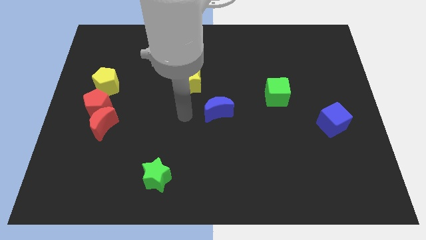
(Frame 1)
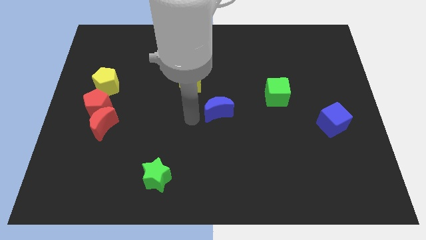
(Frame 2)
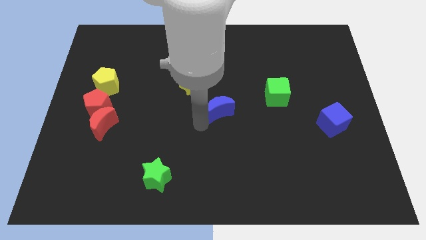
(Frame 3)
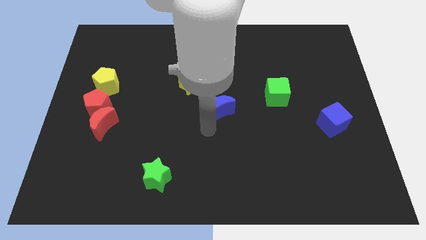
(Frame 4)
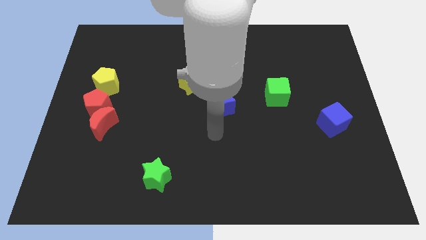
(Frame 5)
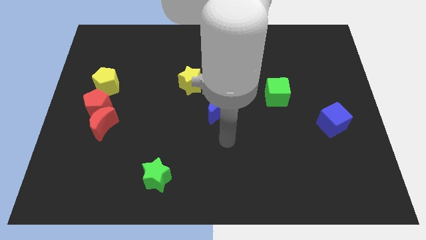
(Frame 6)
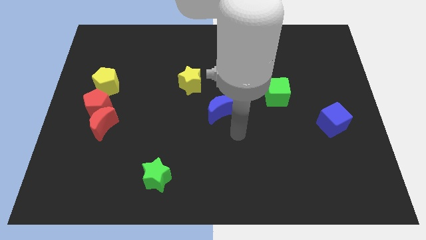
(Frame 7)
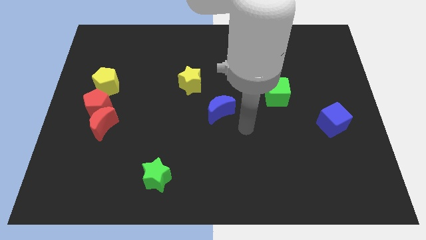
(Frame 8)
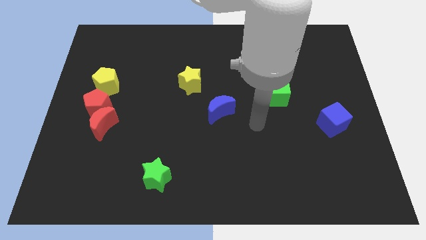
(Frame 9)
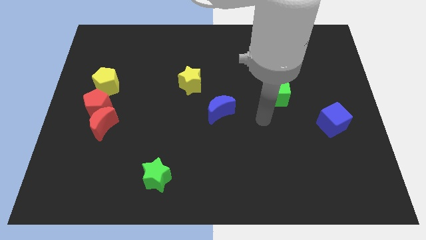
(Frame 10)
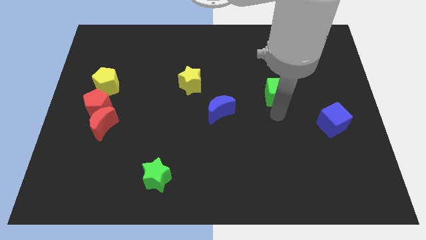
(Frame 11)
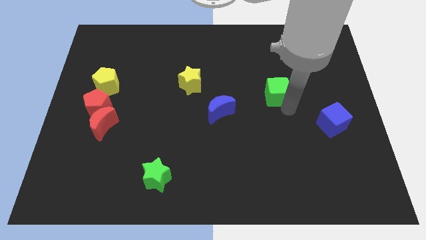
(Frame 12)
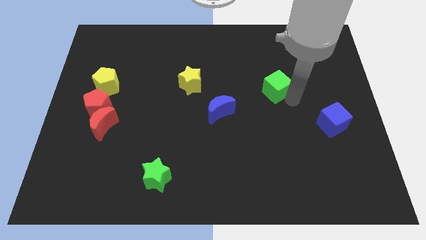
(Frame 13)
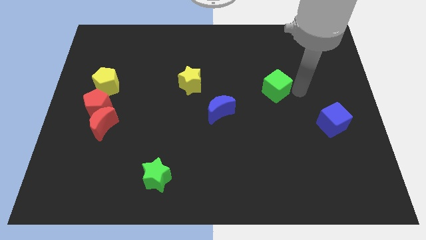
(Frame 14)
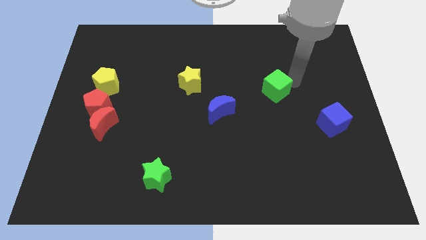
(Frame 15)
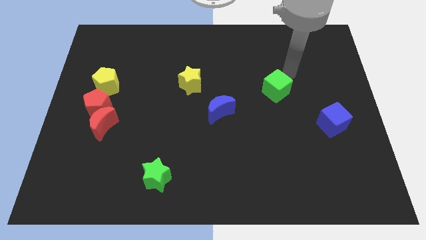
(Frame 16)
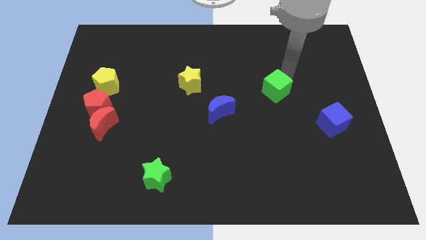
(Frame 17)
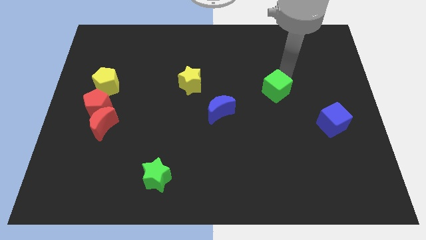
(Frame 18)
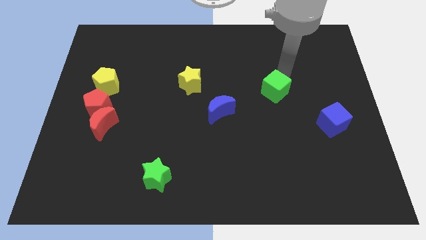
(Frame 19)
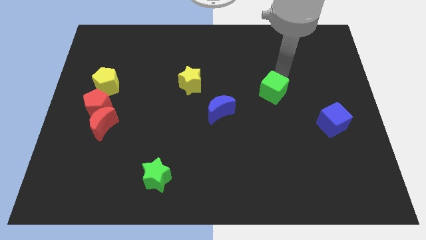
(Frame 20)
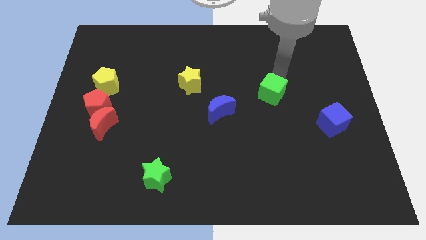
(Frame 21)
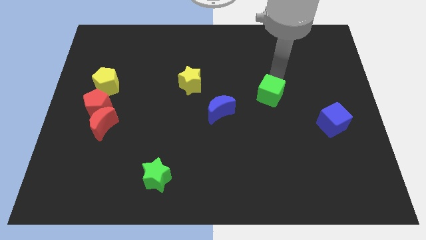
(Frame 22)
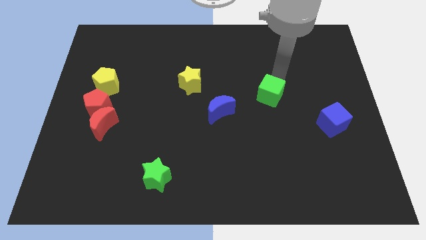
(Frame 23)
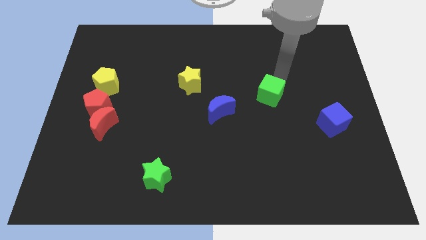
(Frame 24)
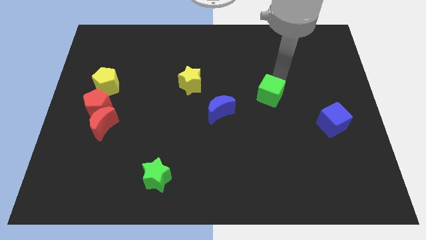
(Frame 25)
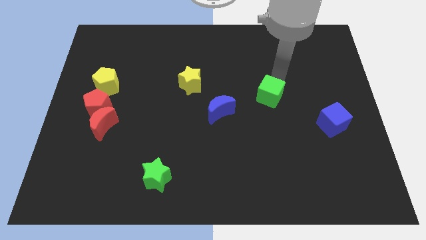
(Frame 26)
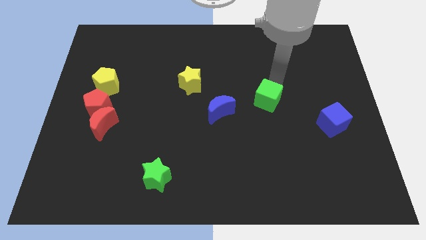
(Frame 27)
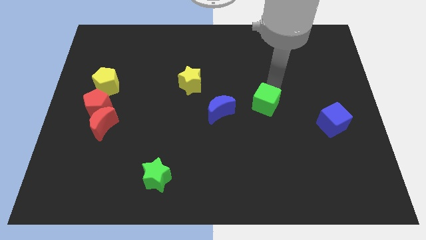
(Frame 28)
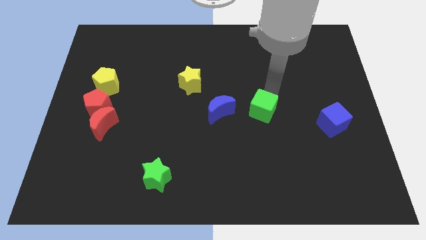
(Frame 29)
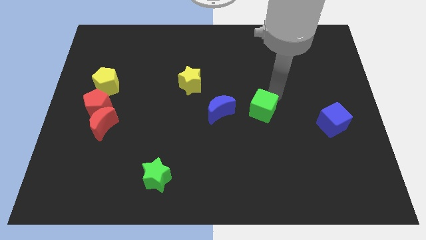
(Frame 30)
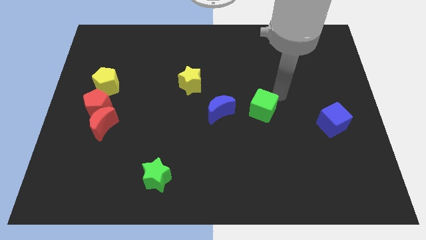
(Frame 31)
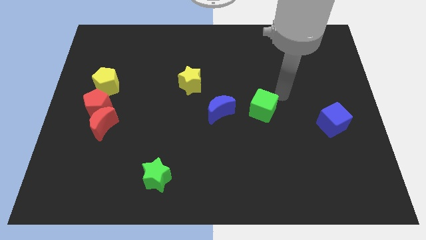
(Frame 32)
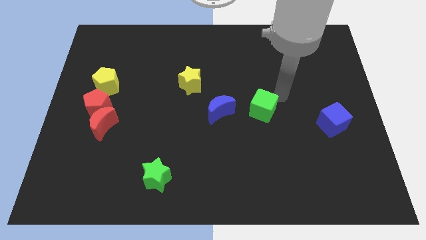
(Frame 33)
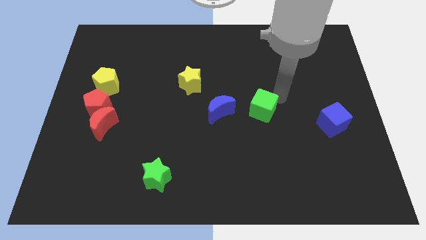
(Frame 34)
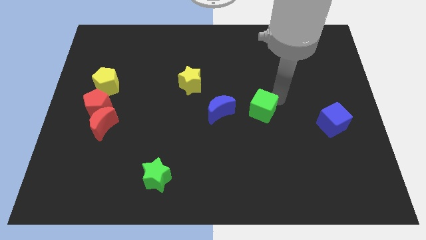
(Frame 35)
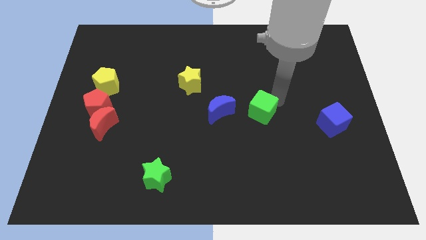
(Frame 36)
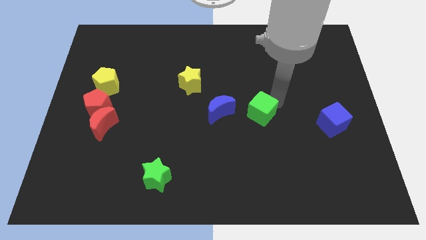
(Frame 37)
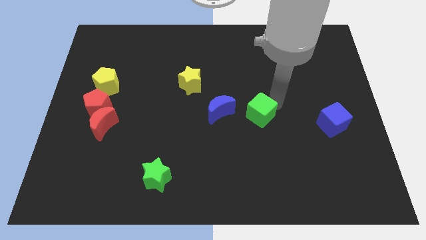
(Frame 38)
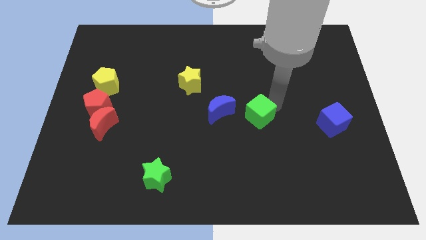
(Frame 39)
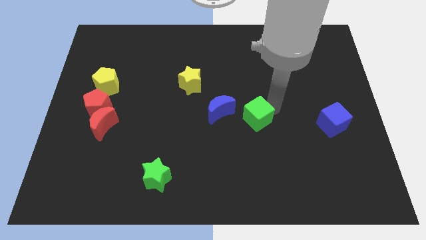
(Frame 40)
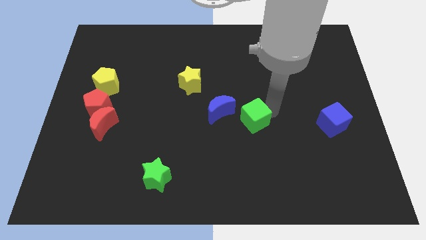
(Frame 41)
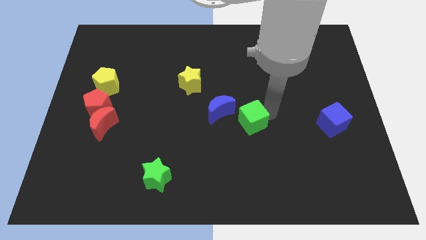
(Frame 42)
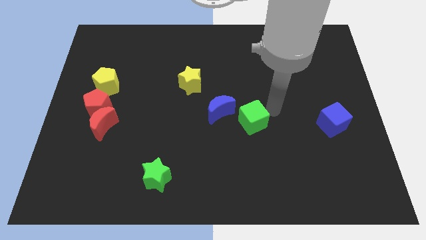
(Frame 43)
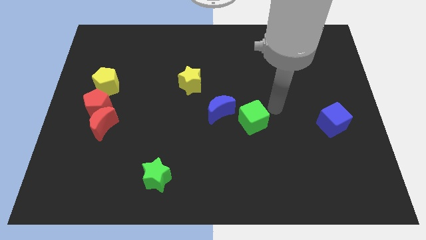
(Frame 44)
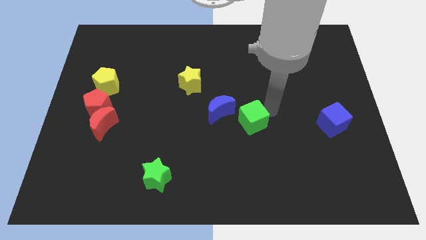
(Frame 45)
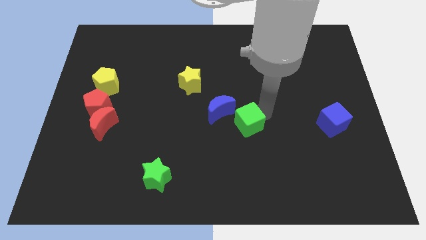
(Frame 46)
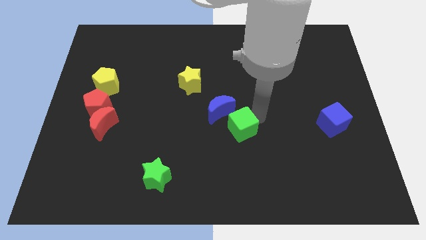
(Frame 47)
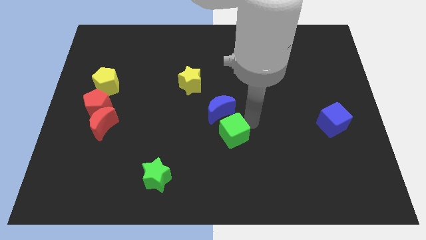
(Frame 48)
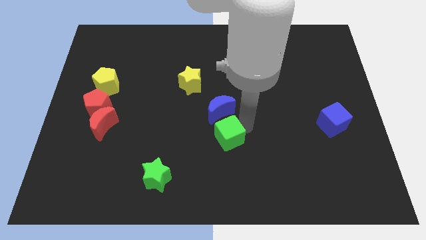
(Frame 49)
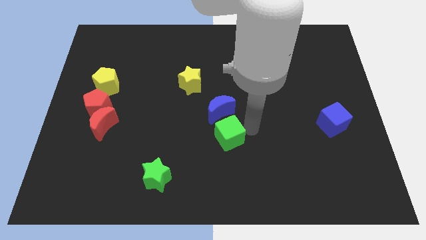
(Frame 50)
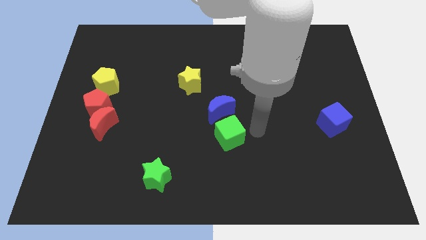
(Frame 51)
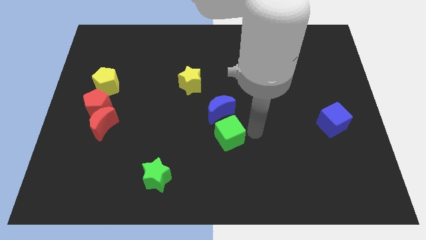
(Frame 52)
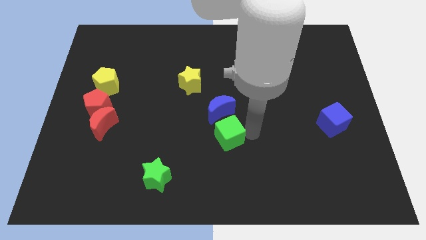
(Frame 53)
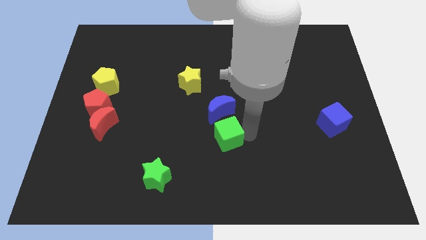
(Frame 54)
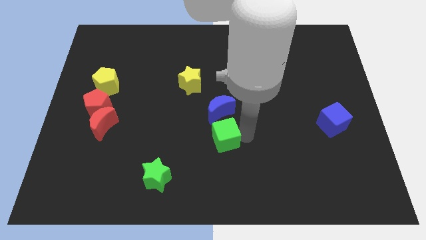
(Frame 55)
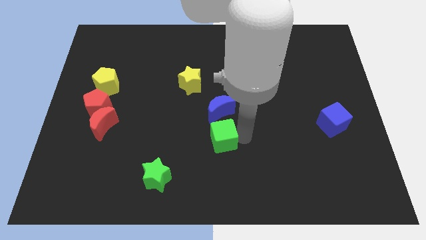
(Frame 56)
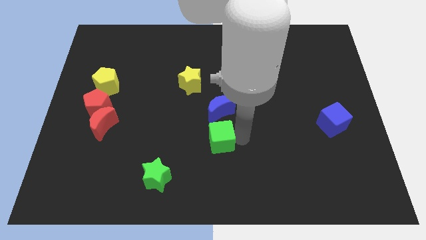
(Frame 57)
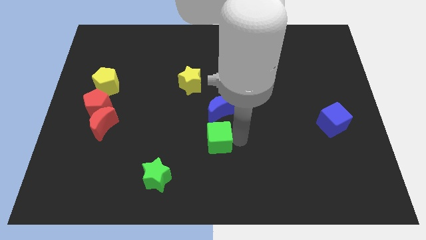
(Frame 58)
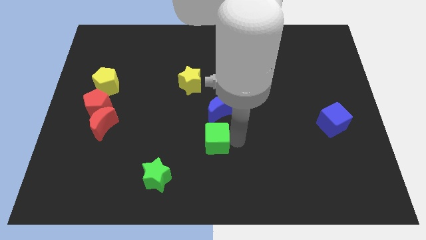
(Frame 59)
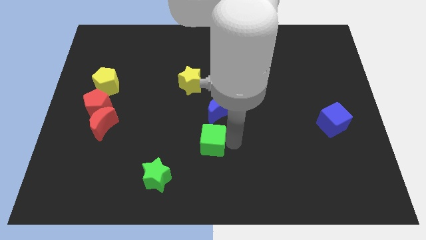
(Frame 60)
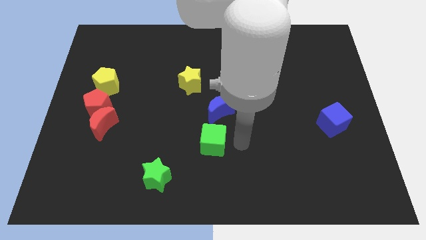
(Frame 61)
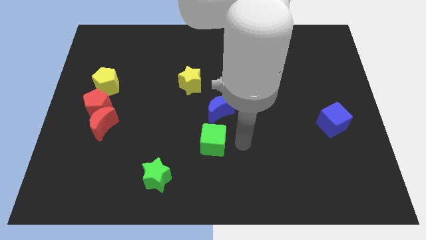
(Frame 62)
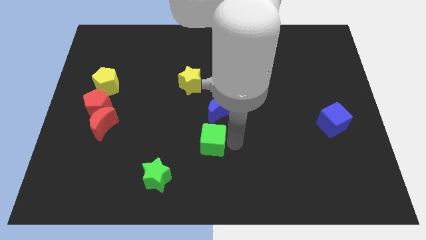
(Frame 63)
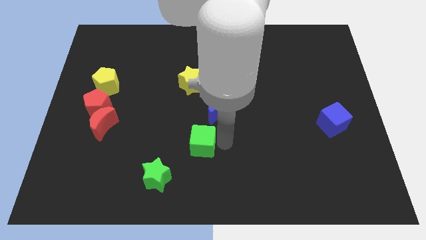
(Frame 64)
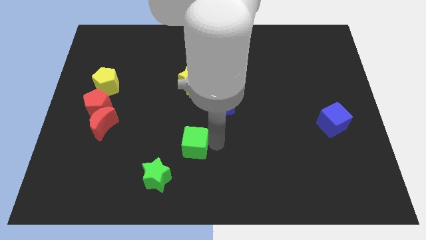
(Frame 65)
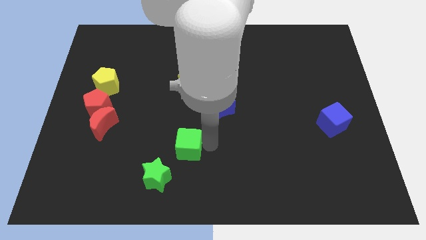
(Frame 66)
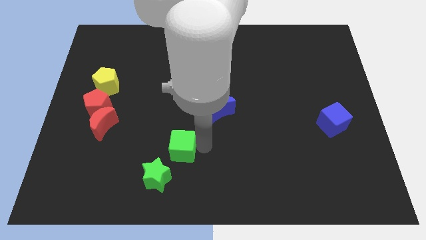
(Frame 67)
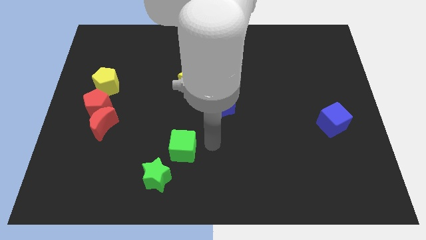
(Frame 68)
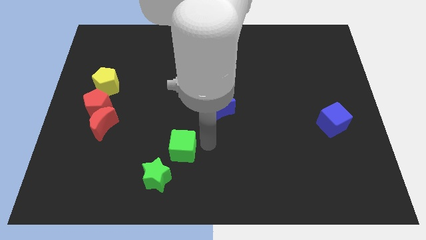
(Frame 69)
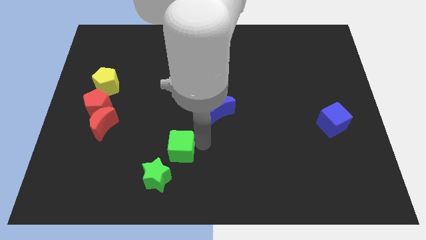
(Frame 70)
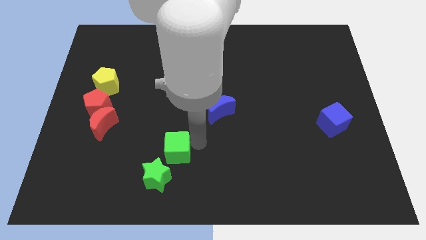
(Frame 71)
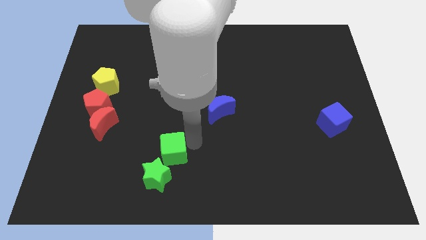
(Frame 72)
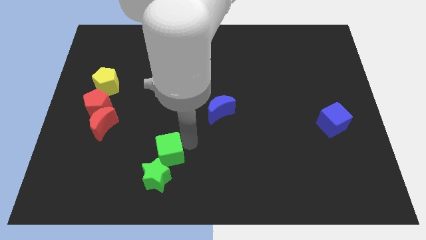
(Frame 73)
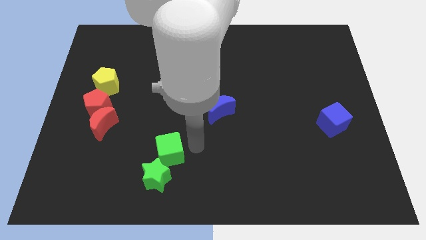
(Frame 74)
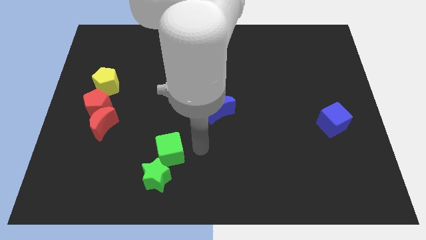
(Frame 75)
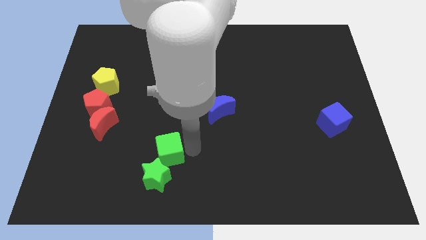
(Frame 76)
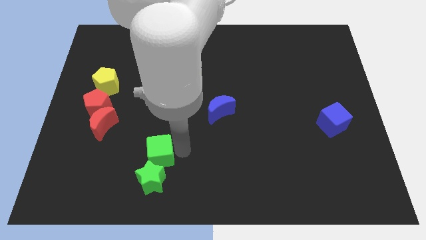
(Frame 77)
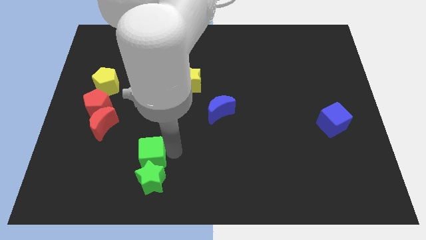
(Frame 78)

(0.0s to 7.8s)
slide the green cube to the top left of the green star
